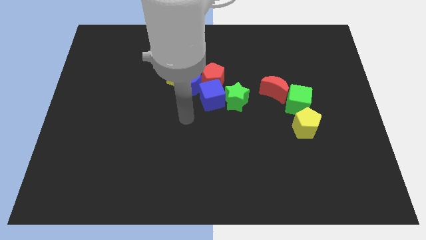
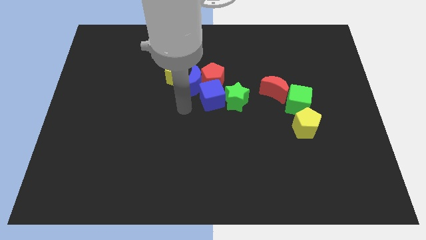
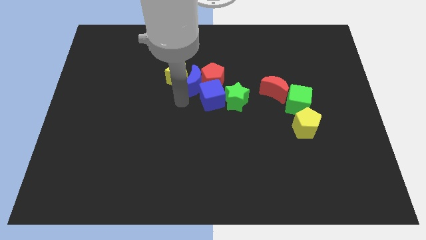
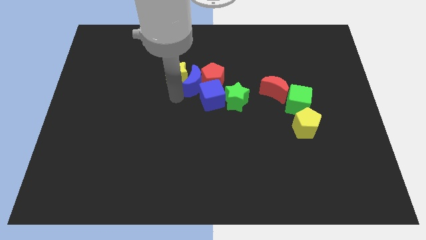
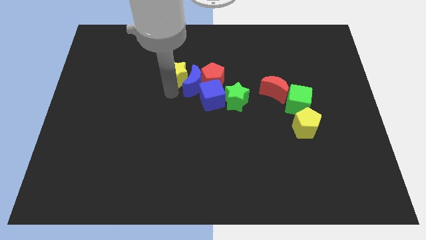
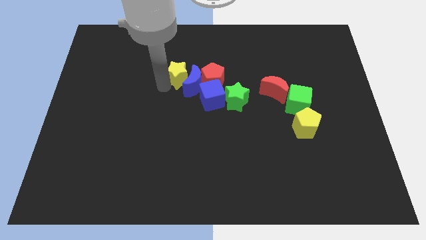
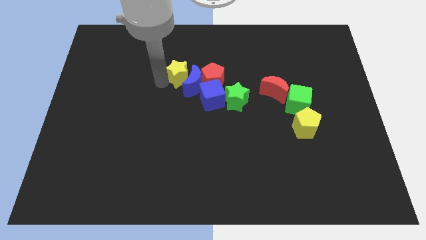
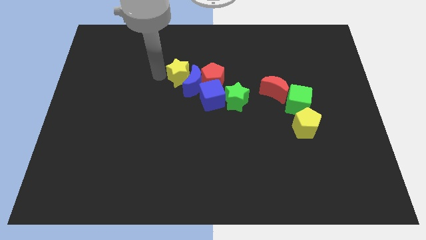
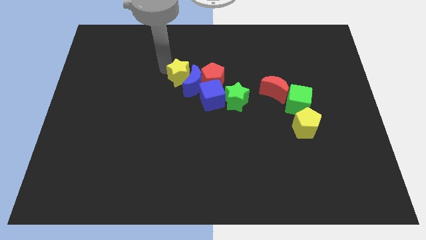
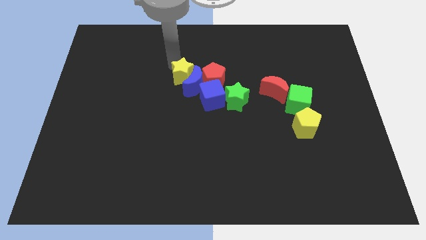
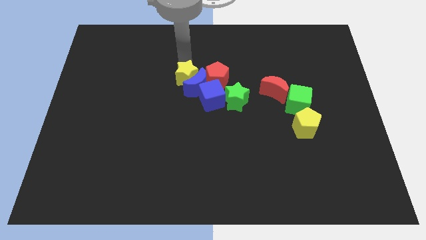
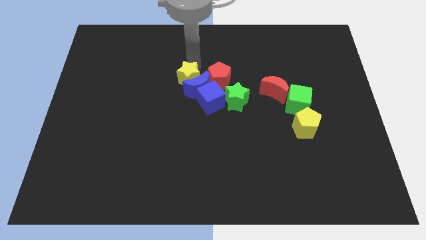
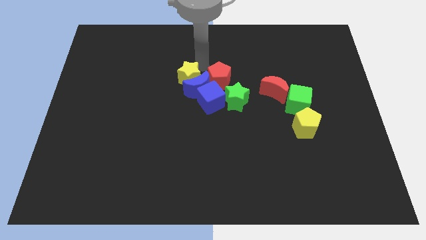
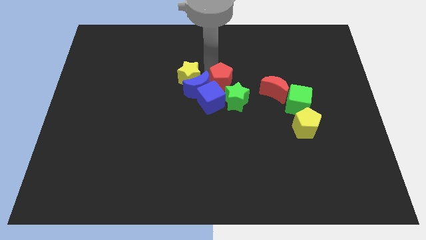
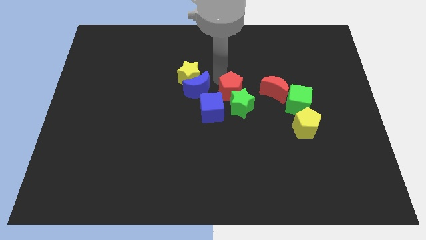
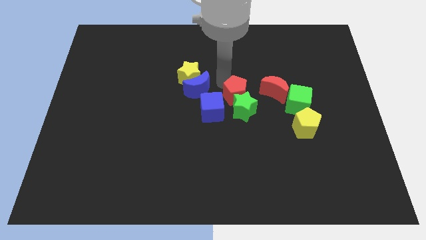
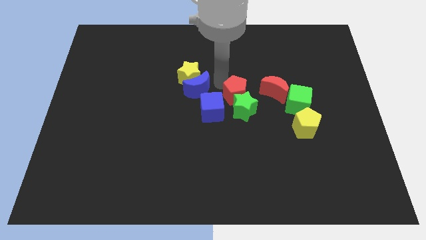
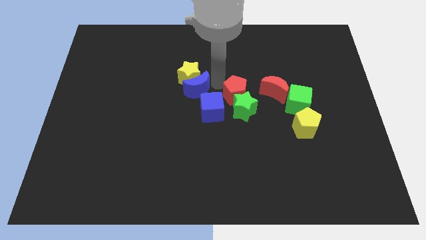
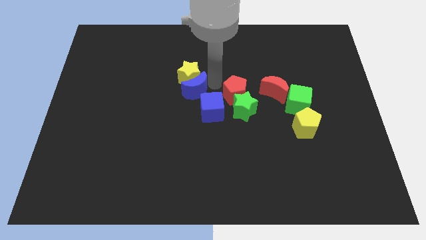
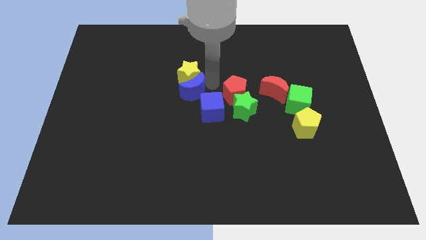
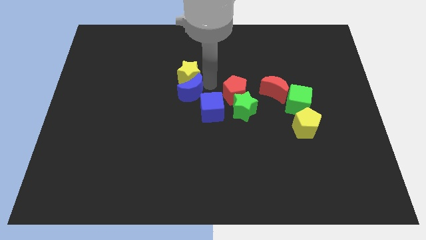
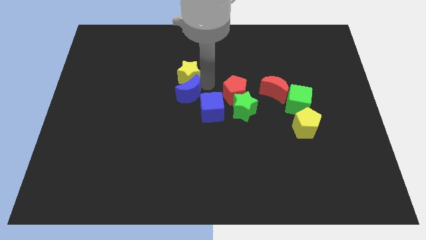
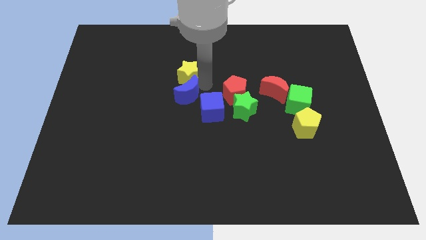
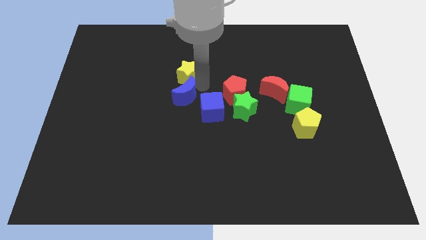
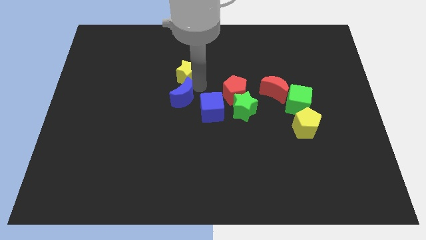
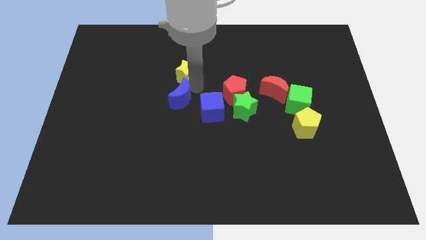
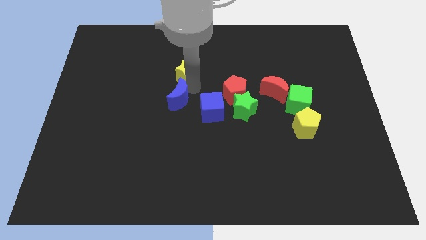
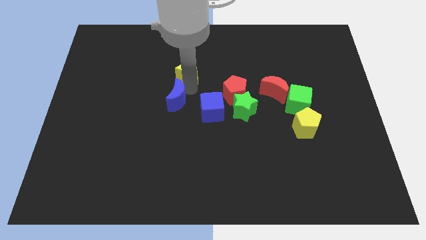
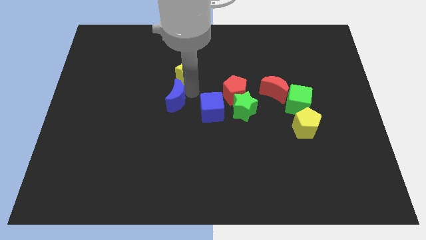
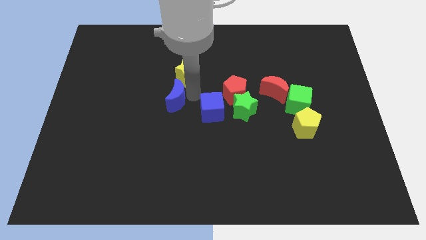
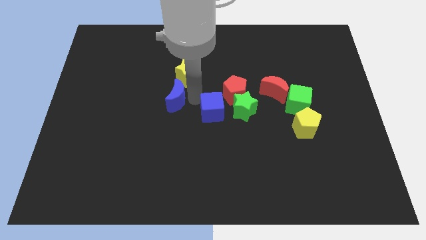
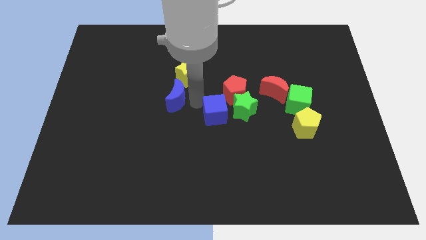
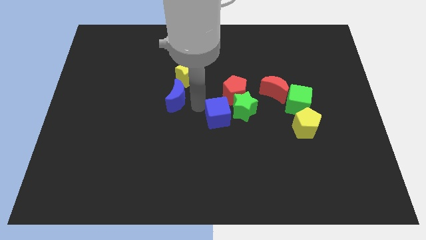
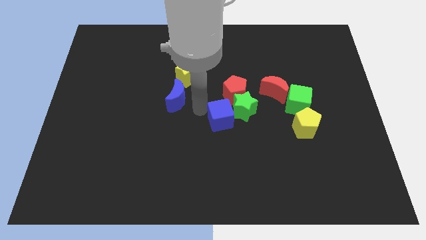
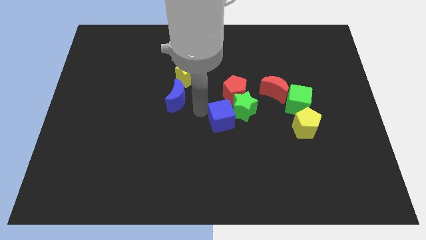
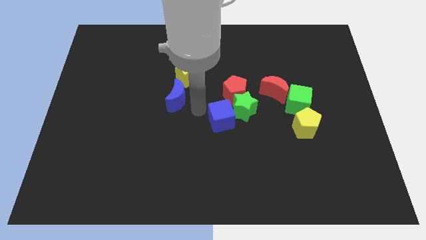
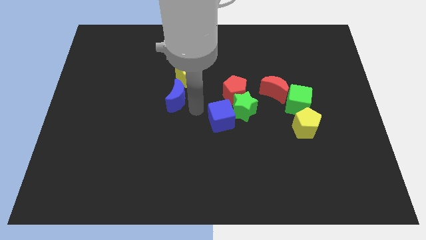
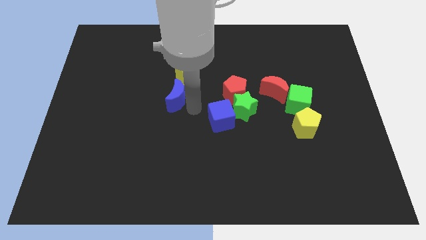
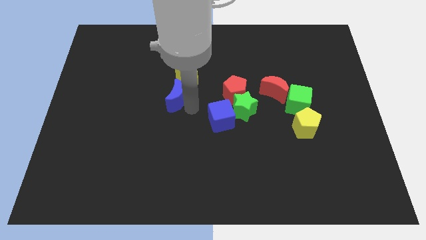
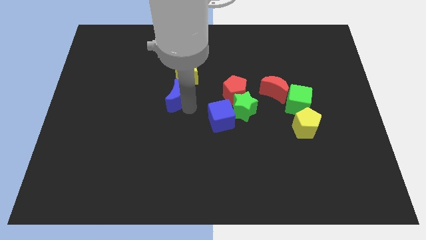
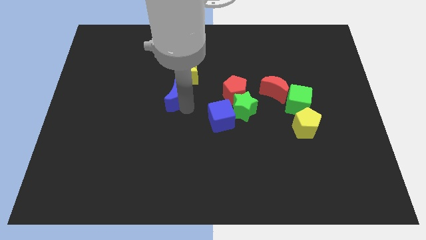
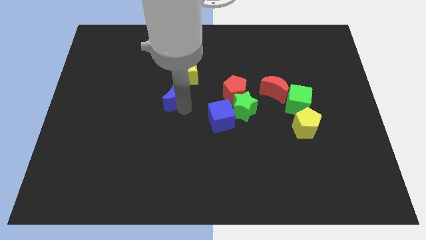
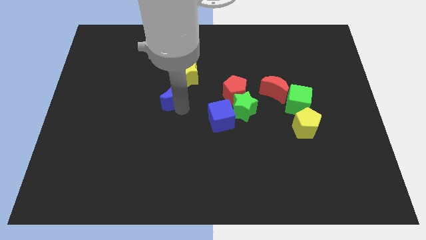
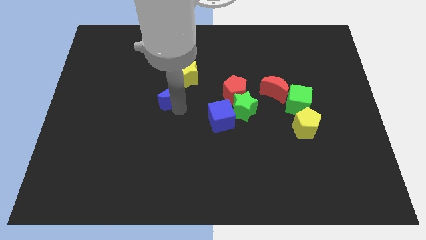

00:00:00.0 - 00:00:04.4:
pull the blue moon apart from the group

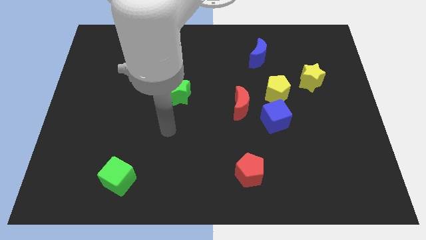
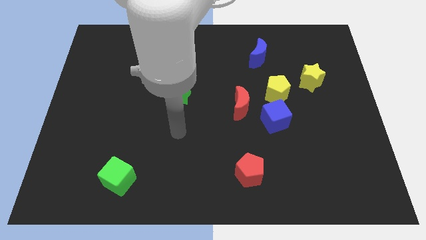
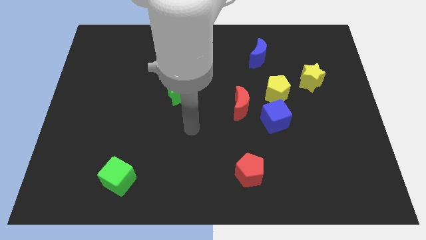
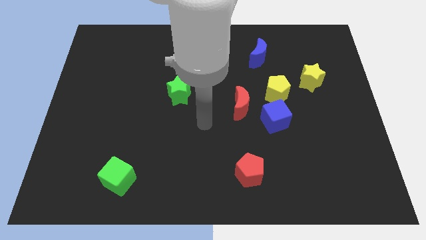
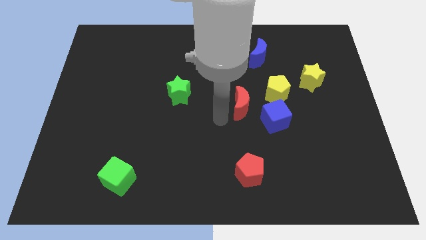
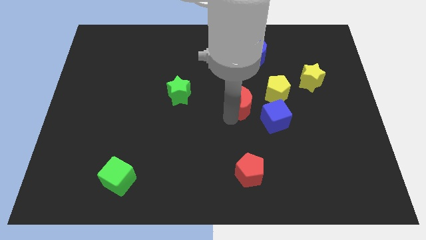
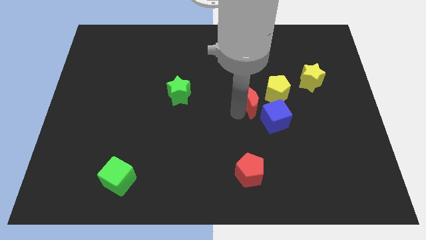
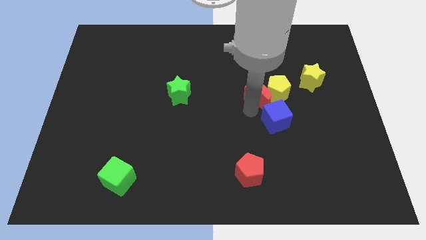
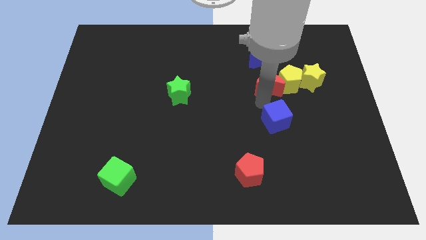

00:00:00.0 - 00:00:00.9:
pull the blue cube apart from the yellow pentagon and red moon

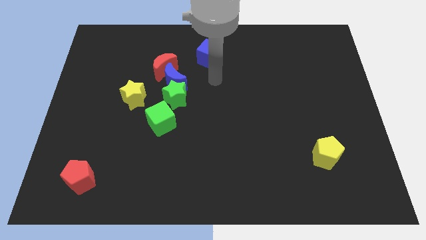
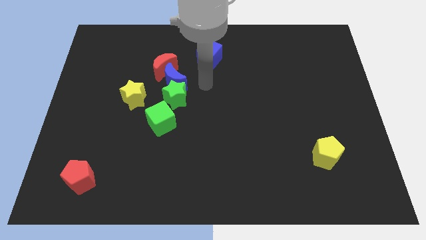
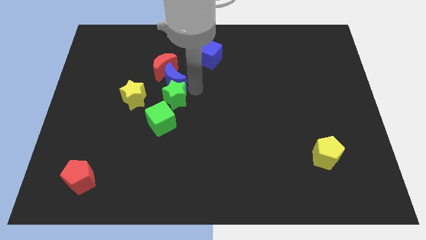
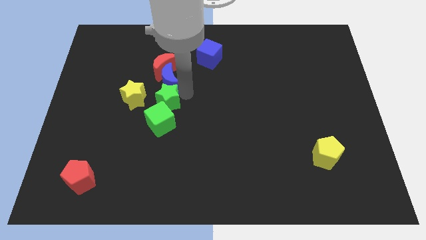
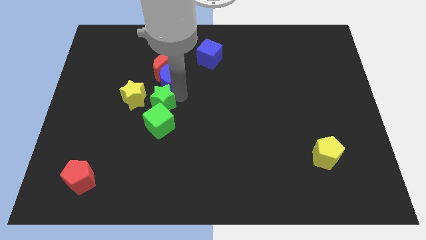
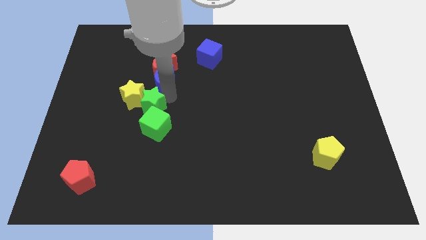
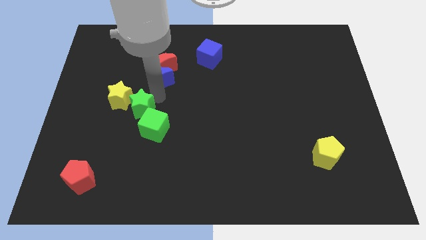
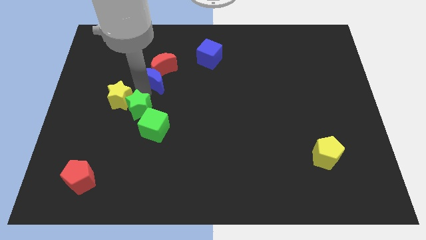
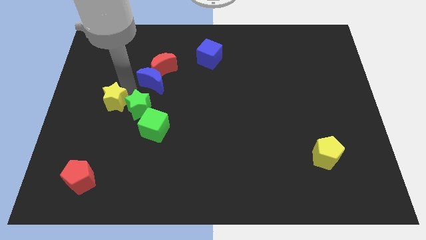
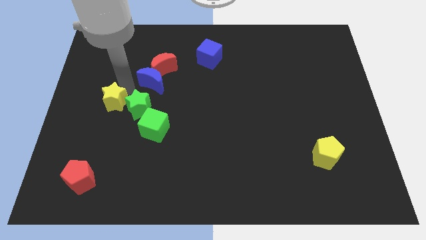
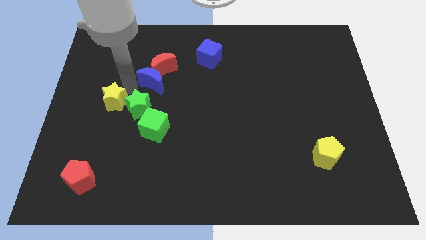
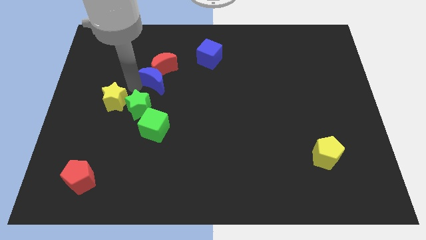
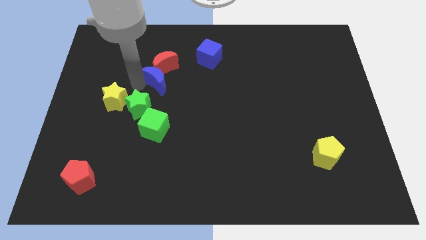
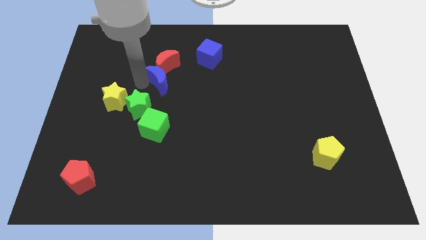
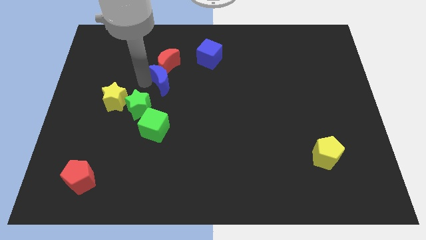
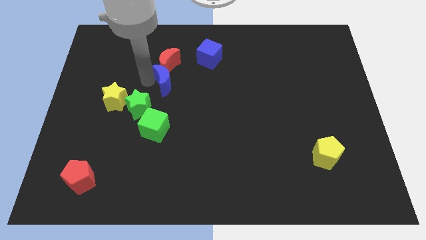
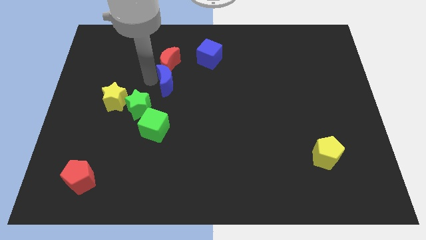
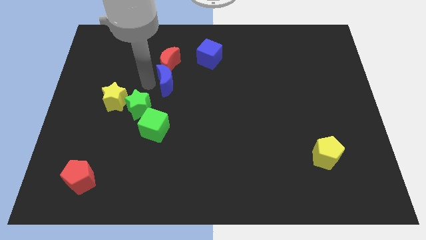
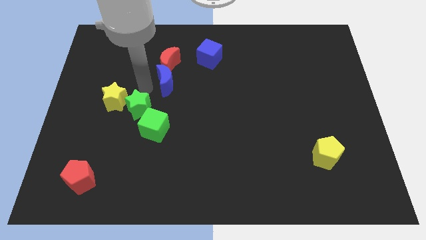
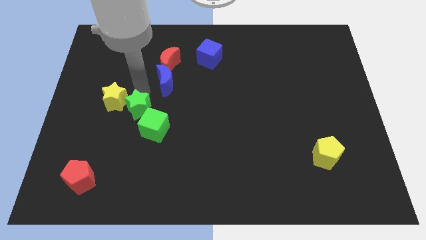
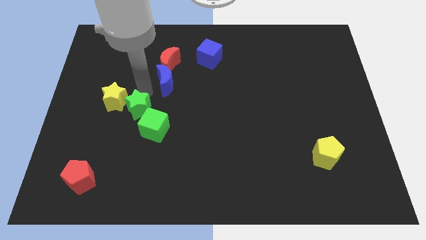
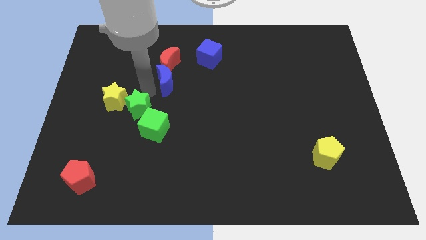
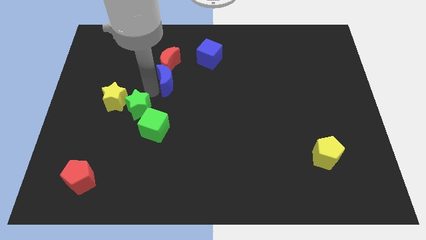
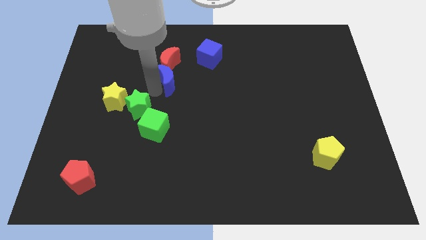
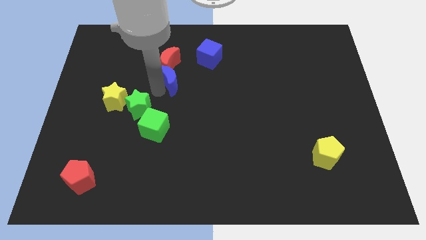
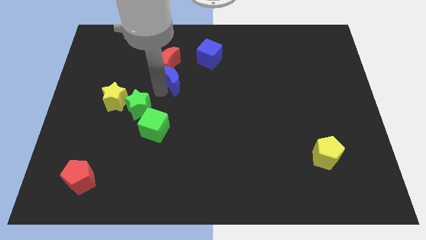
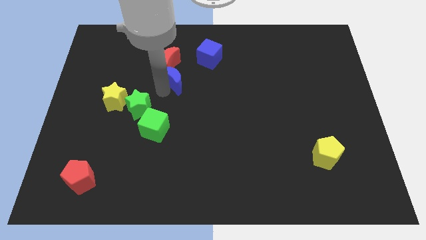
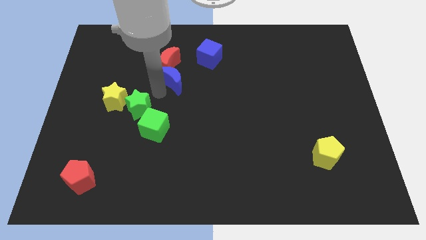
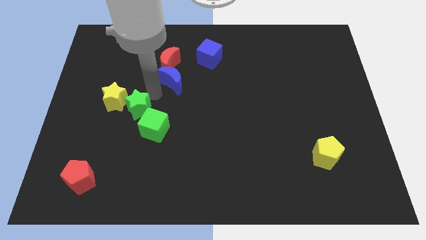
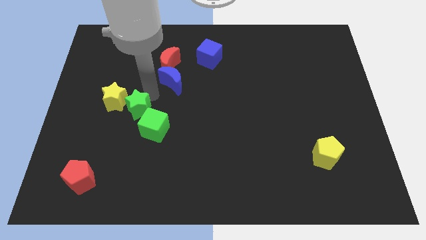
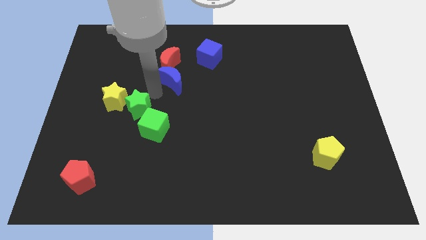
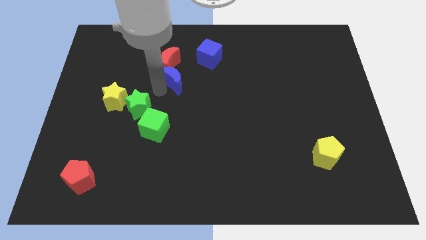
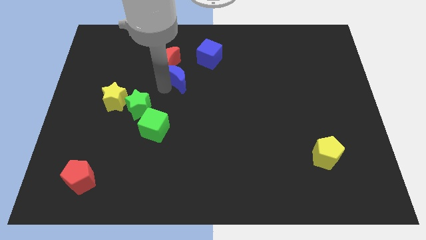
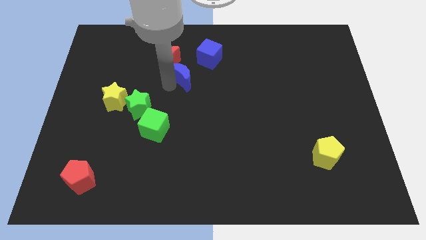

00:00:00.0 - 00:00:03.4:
move the blue moon away from the green star, red moon, and yellow star

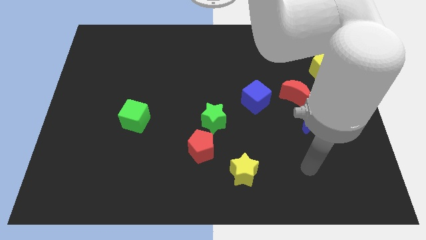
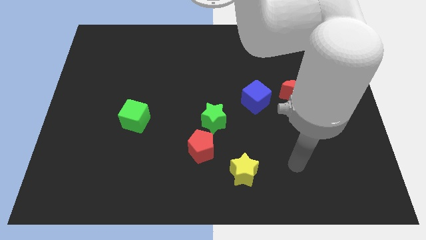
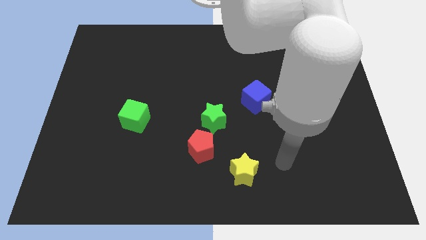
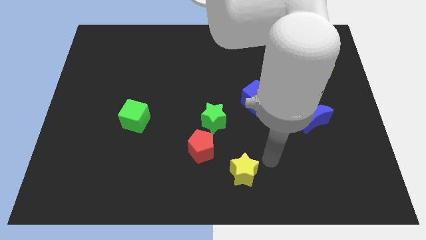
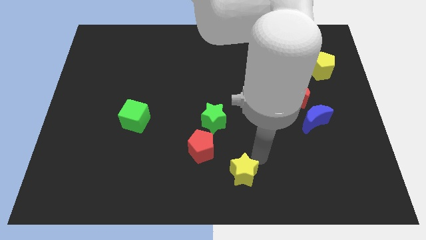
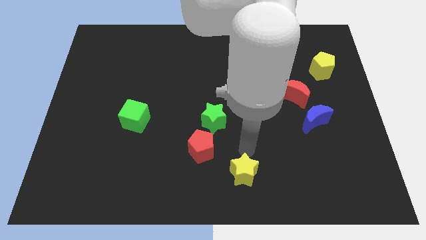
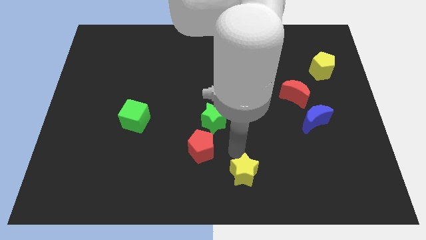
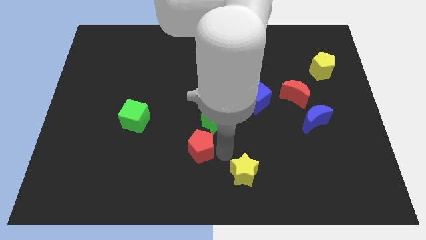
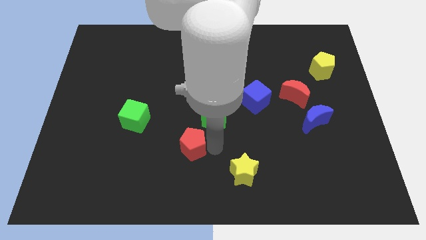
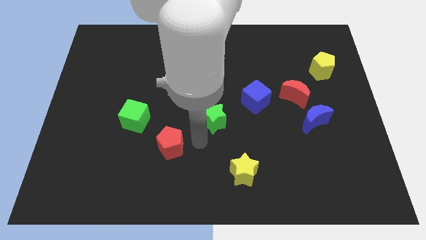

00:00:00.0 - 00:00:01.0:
separate the green star from the red pentagon
